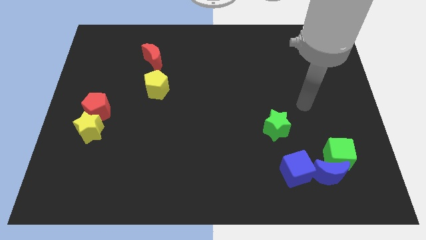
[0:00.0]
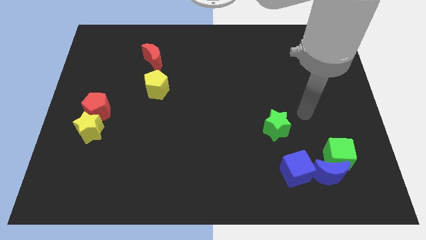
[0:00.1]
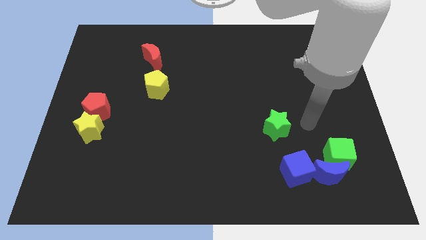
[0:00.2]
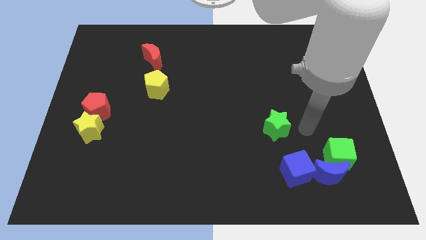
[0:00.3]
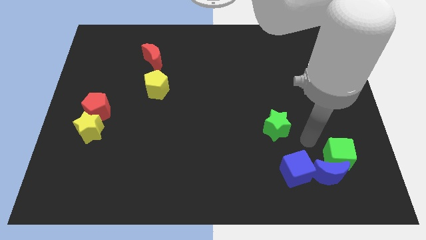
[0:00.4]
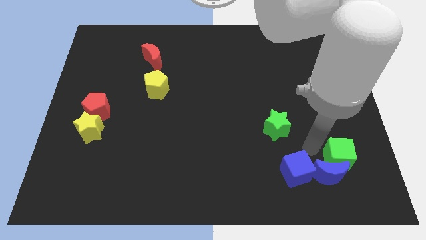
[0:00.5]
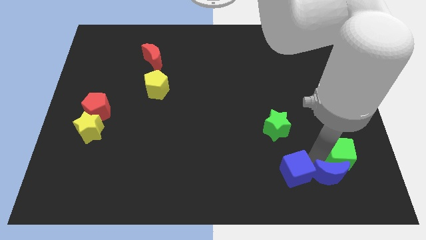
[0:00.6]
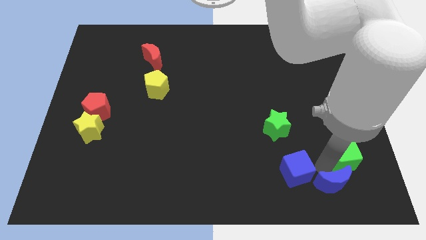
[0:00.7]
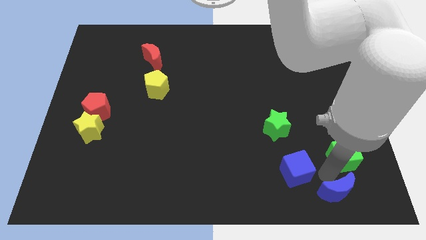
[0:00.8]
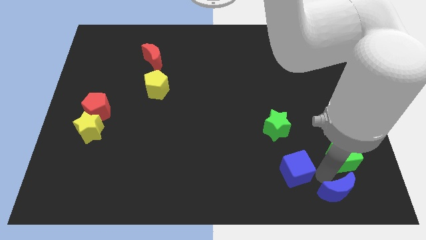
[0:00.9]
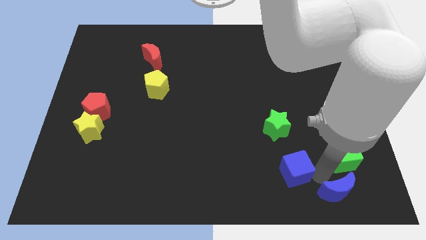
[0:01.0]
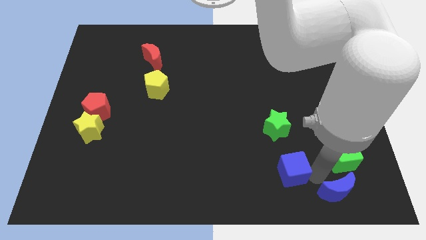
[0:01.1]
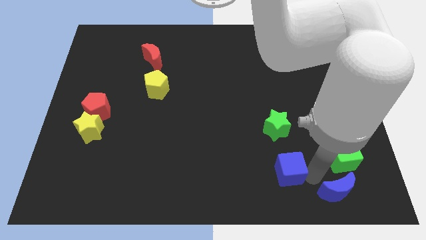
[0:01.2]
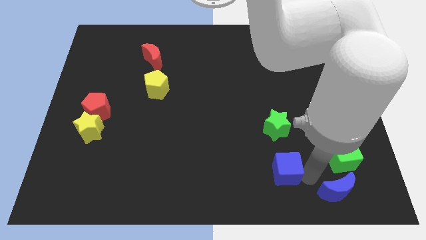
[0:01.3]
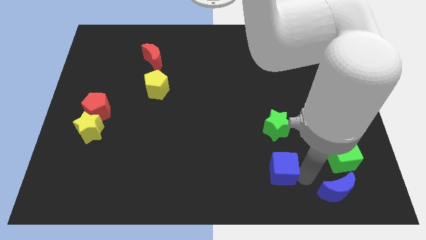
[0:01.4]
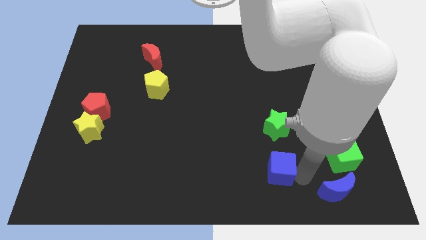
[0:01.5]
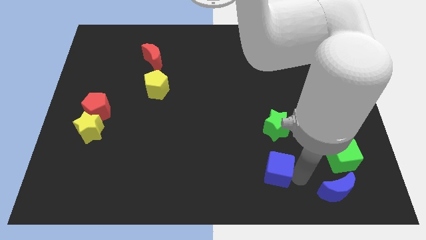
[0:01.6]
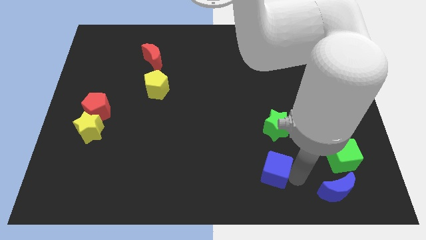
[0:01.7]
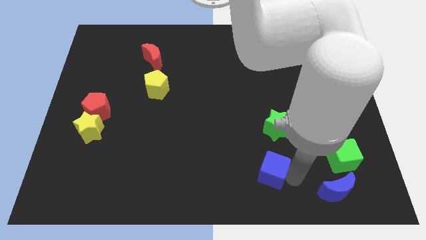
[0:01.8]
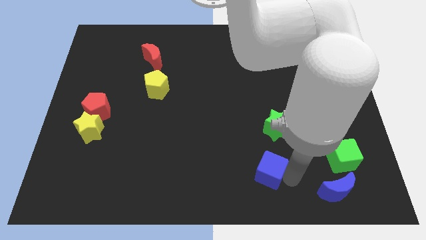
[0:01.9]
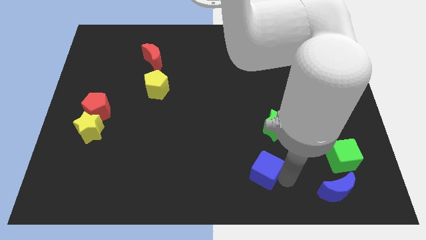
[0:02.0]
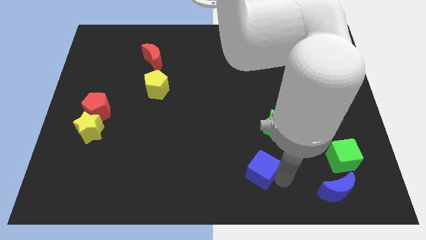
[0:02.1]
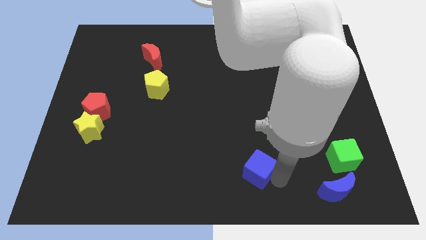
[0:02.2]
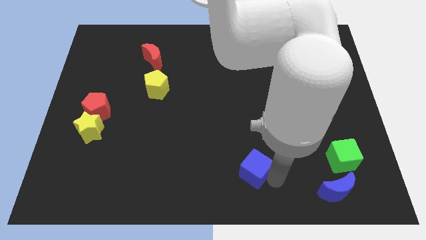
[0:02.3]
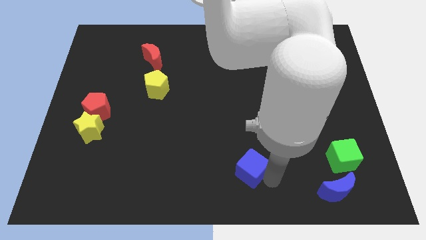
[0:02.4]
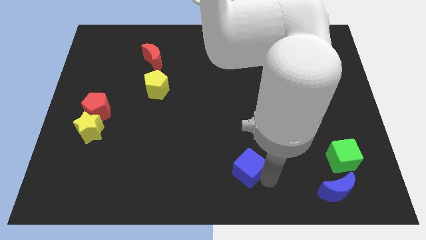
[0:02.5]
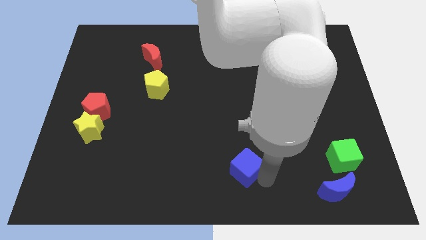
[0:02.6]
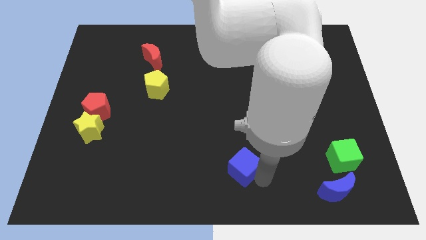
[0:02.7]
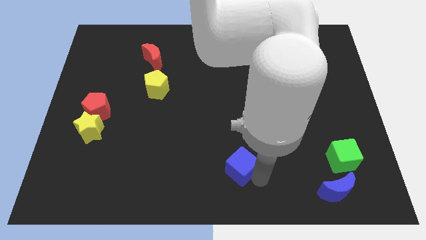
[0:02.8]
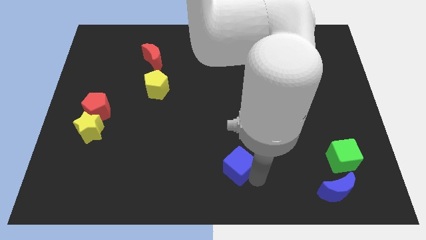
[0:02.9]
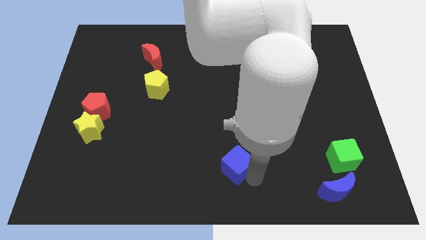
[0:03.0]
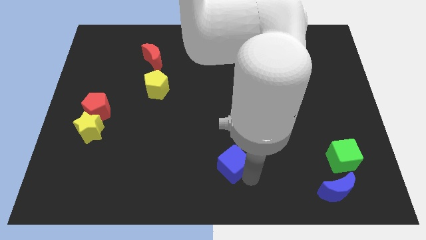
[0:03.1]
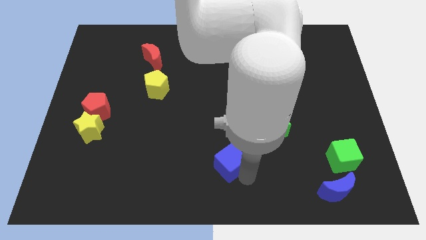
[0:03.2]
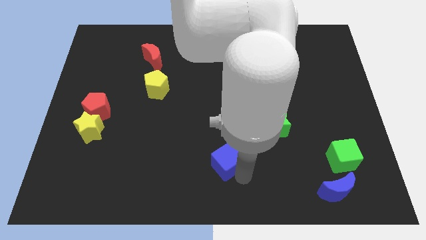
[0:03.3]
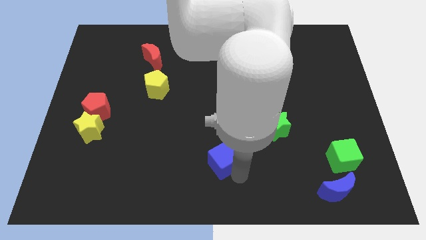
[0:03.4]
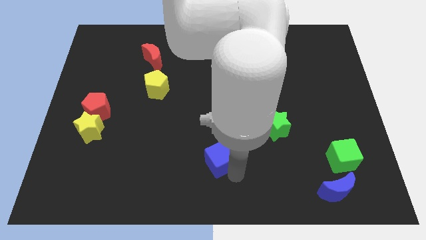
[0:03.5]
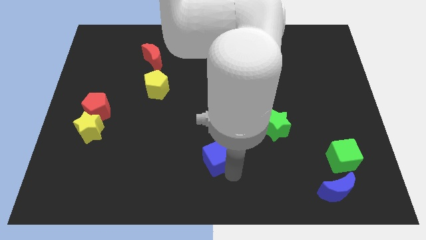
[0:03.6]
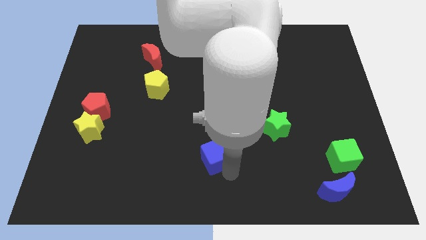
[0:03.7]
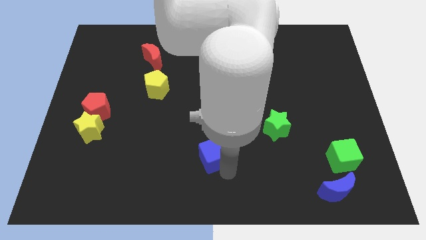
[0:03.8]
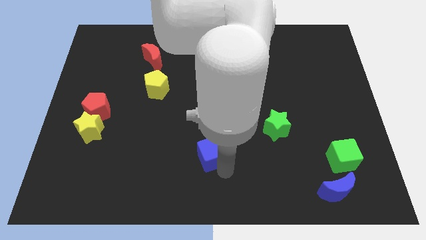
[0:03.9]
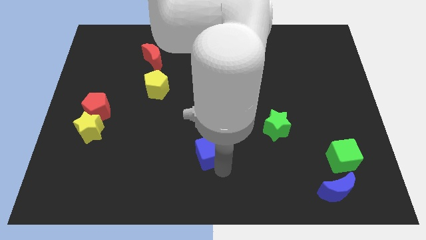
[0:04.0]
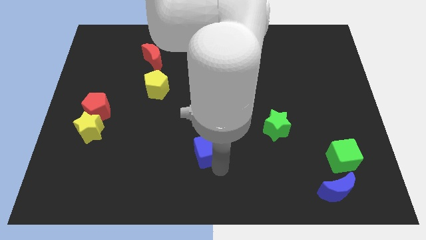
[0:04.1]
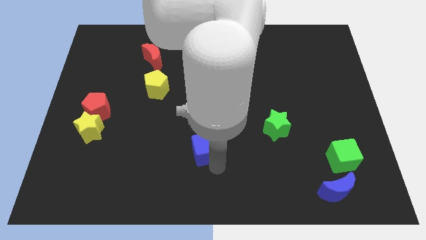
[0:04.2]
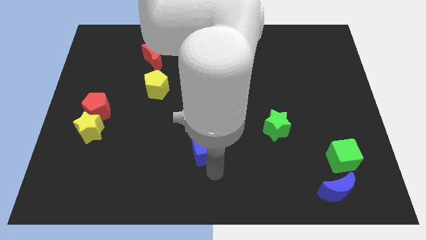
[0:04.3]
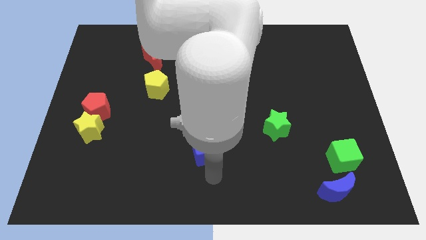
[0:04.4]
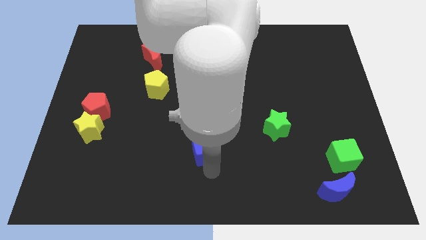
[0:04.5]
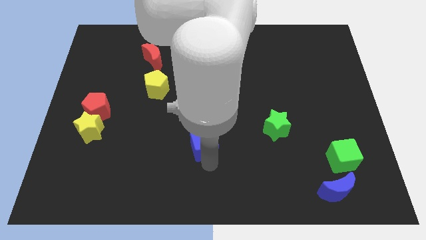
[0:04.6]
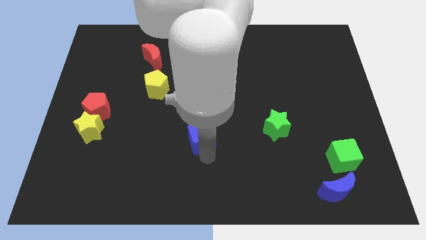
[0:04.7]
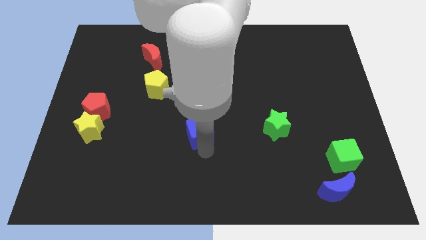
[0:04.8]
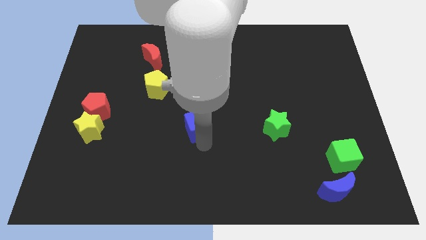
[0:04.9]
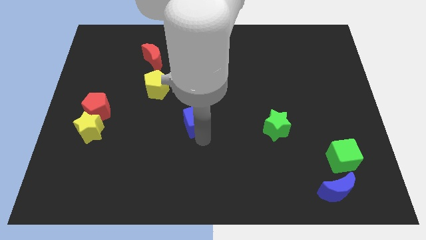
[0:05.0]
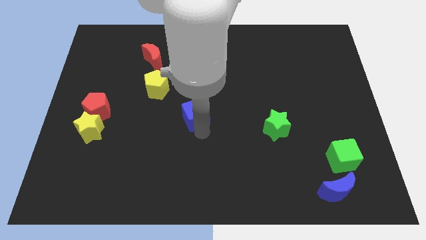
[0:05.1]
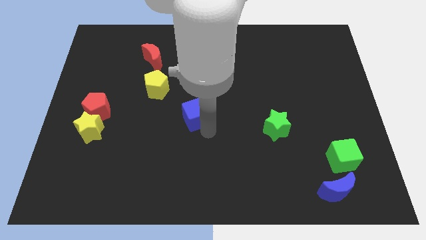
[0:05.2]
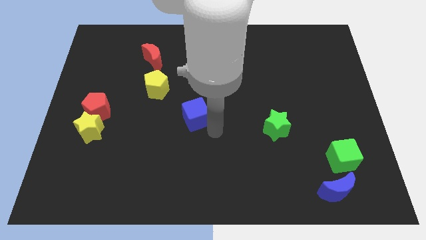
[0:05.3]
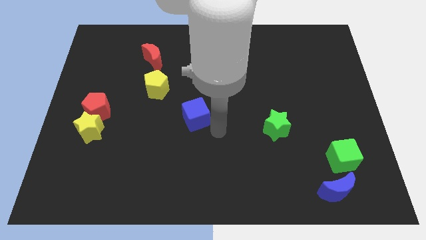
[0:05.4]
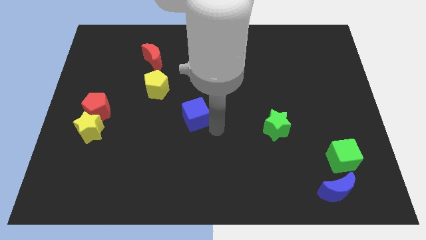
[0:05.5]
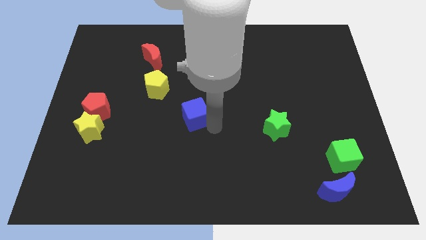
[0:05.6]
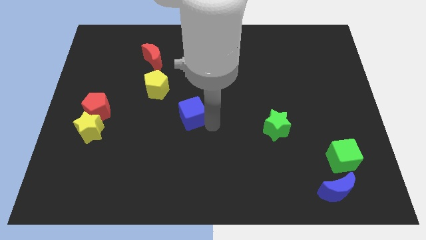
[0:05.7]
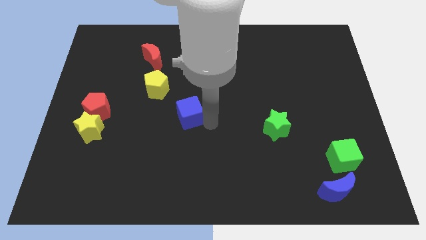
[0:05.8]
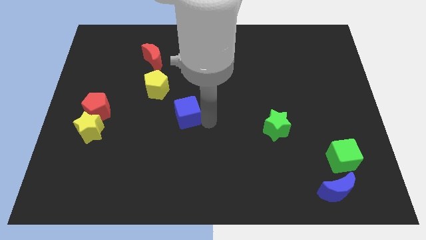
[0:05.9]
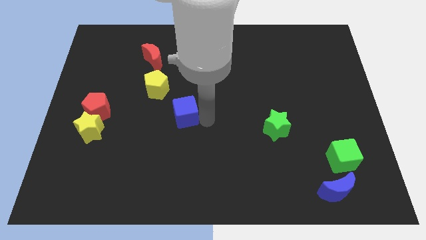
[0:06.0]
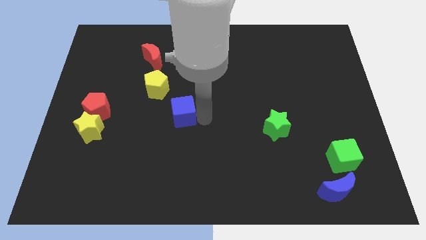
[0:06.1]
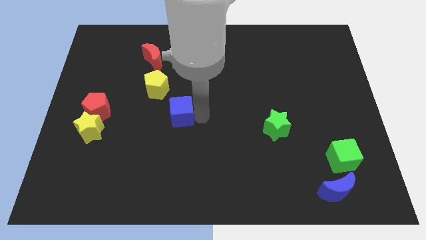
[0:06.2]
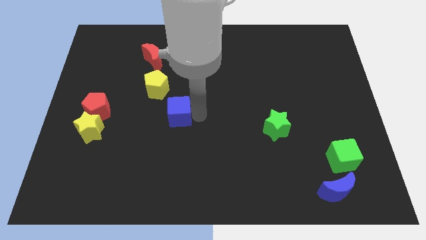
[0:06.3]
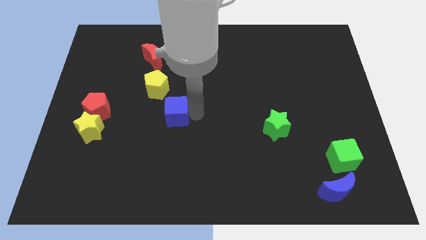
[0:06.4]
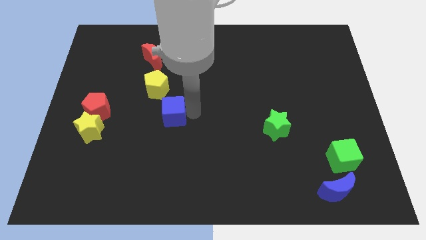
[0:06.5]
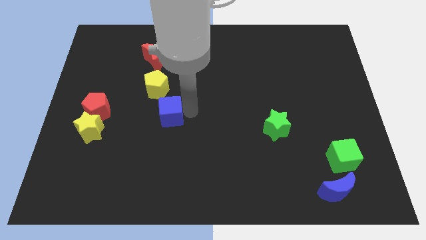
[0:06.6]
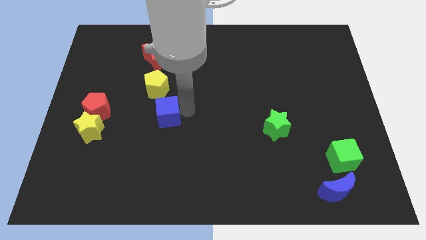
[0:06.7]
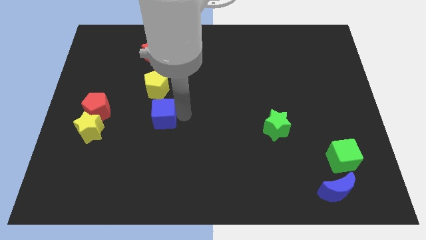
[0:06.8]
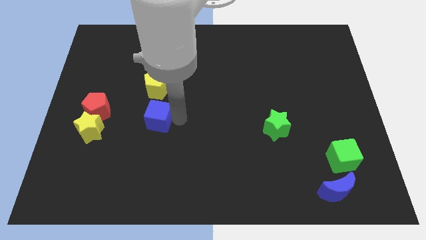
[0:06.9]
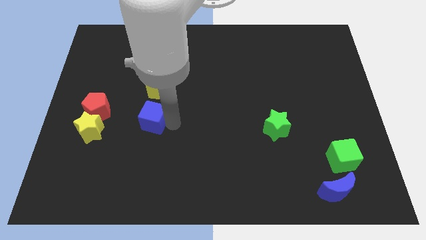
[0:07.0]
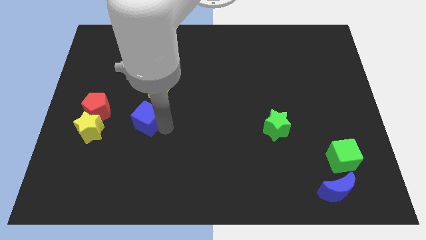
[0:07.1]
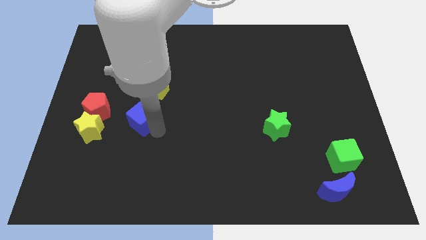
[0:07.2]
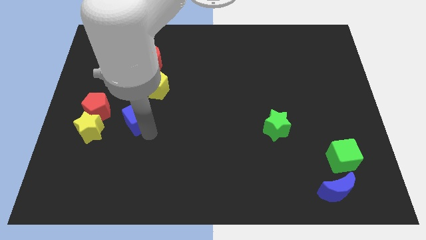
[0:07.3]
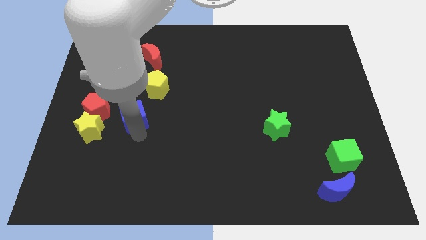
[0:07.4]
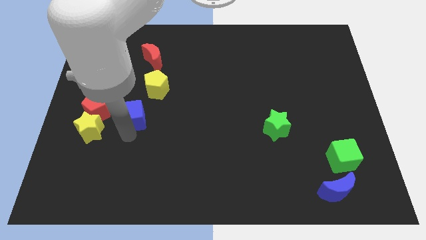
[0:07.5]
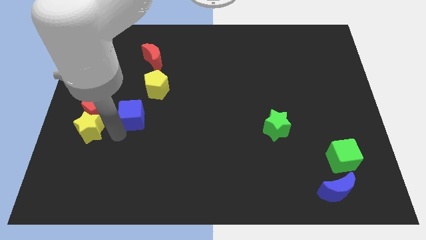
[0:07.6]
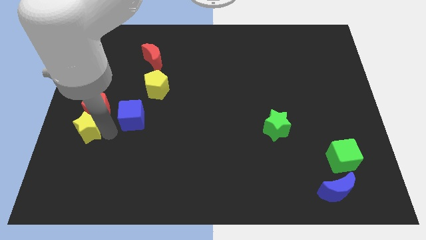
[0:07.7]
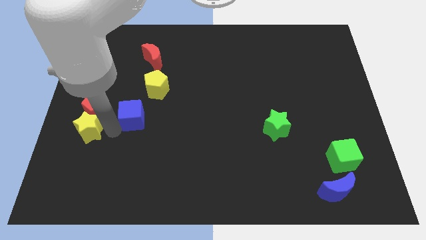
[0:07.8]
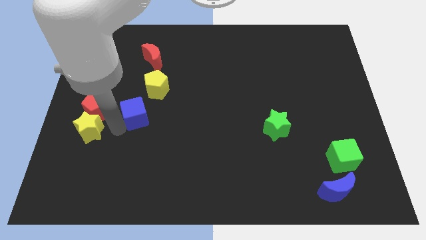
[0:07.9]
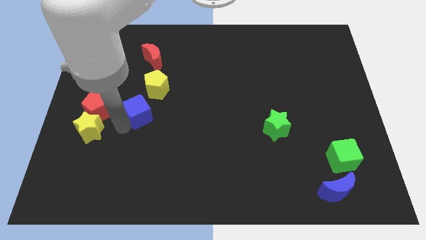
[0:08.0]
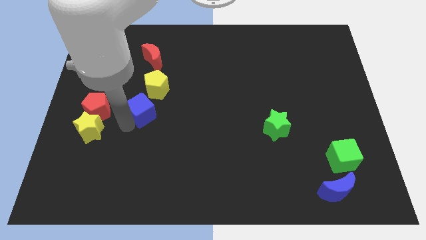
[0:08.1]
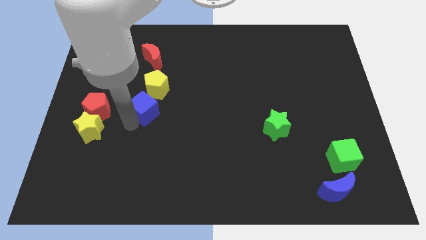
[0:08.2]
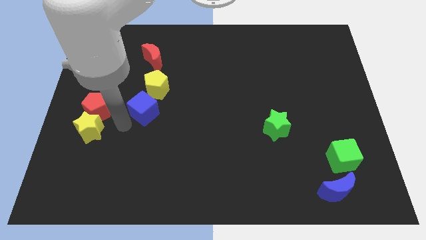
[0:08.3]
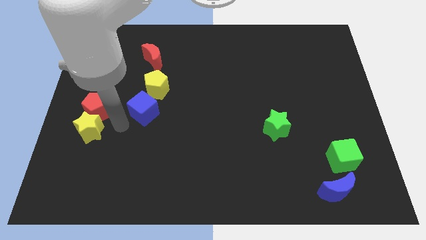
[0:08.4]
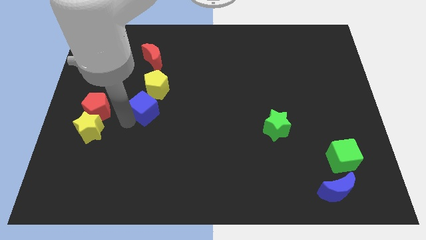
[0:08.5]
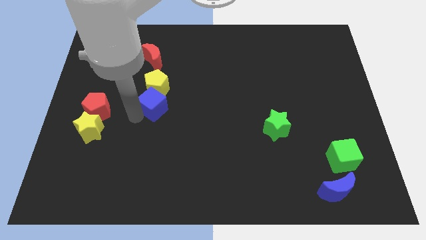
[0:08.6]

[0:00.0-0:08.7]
put the blue cube to the bottom of the red moon
